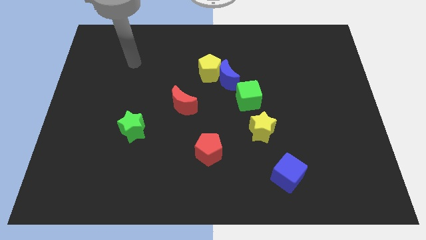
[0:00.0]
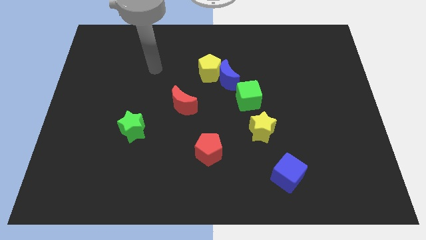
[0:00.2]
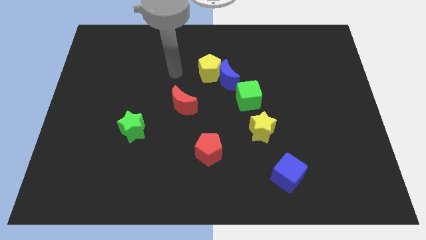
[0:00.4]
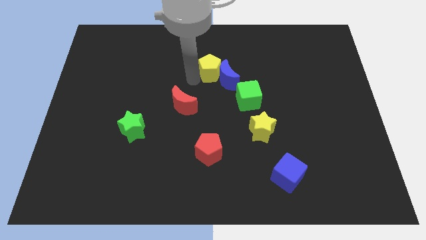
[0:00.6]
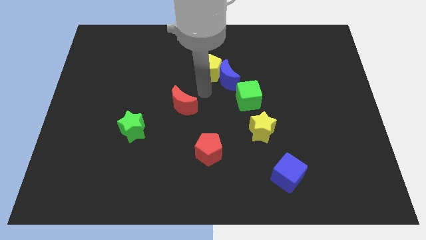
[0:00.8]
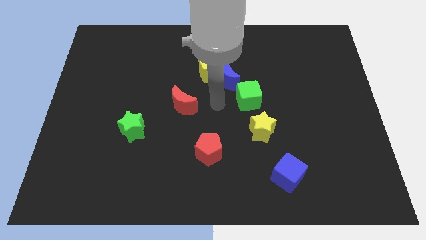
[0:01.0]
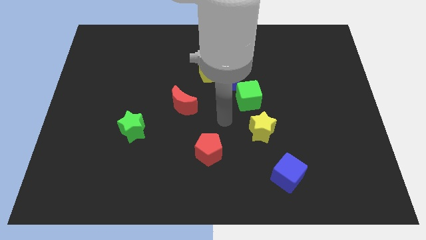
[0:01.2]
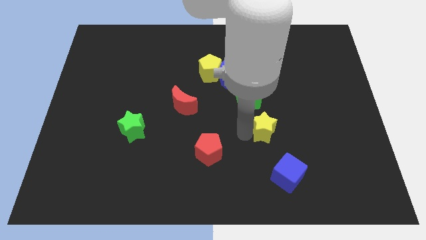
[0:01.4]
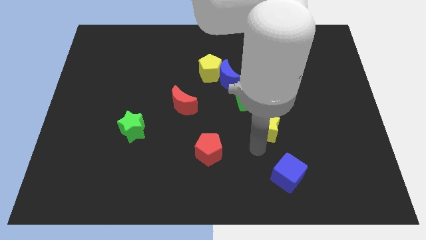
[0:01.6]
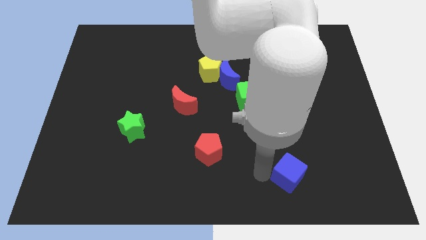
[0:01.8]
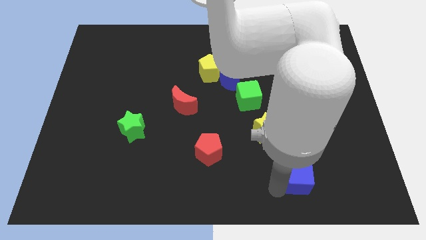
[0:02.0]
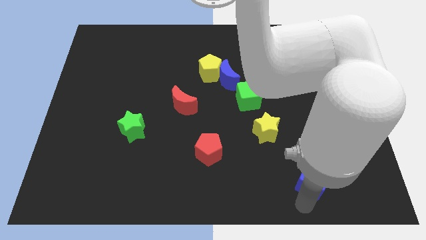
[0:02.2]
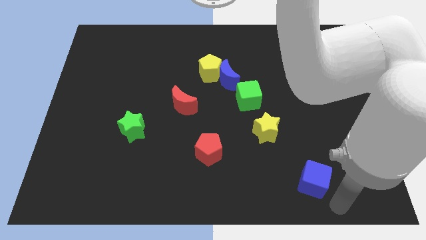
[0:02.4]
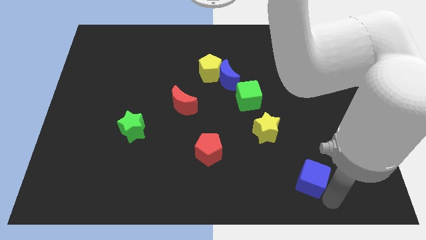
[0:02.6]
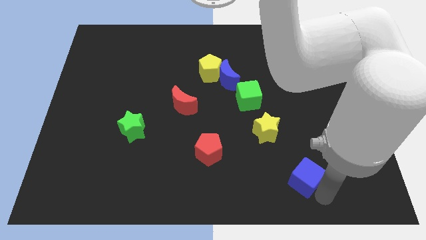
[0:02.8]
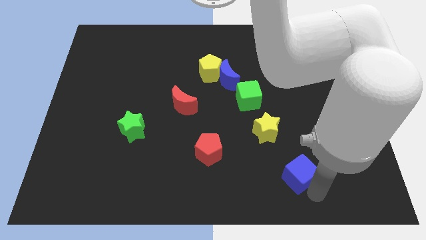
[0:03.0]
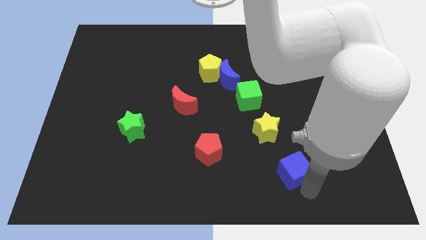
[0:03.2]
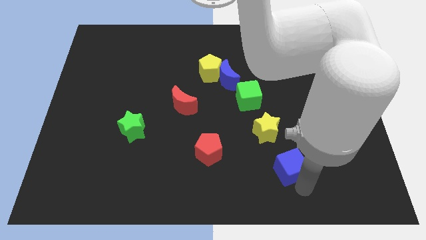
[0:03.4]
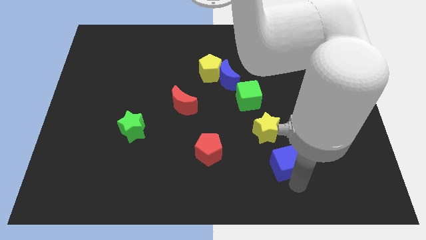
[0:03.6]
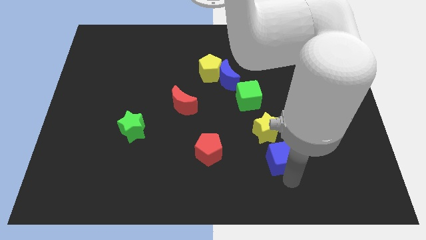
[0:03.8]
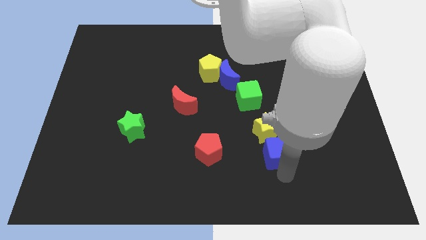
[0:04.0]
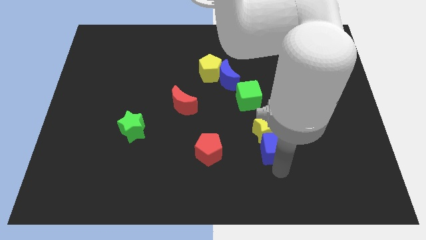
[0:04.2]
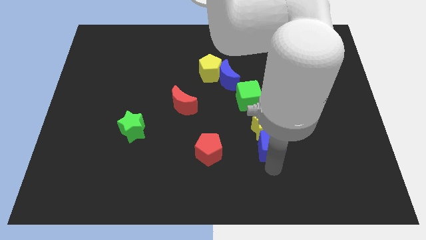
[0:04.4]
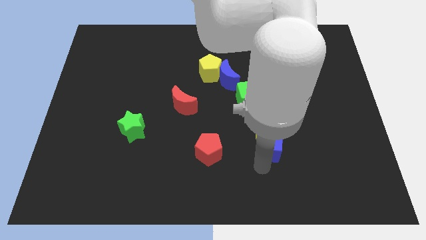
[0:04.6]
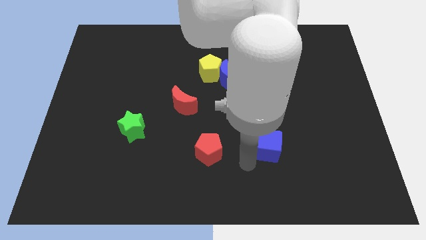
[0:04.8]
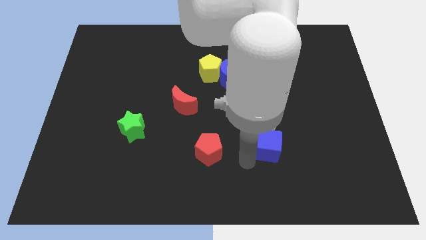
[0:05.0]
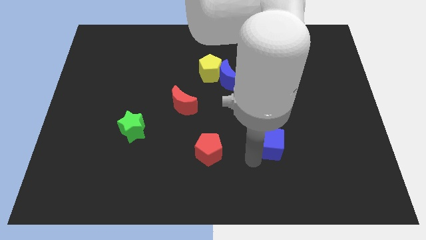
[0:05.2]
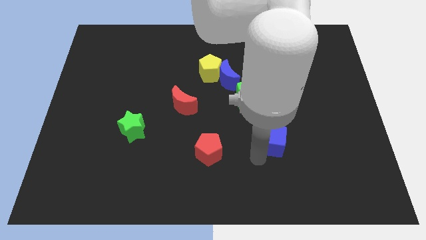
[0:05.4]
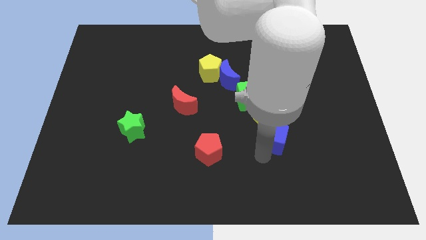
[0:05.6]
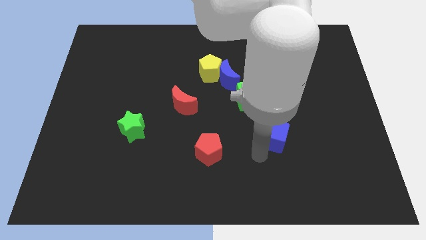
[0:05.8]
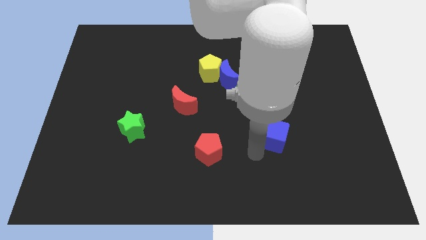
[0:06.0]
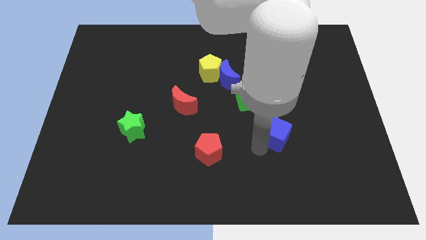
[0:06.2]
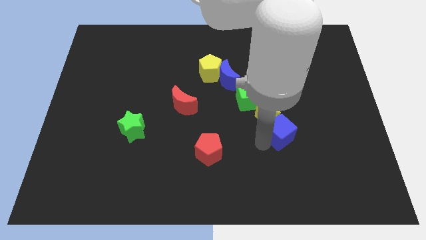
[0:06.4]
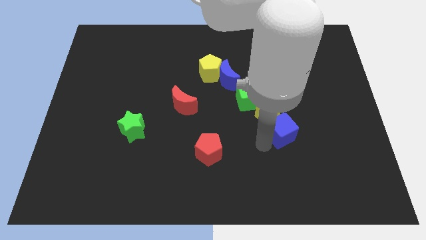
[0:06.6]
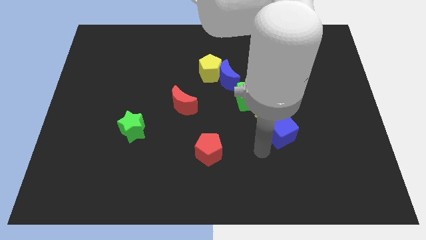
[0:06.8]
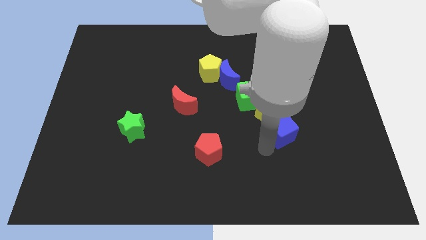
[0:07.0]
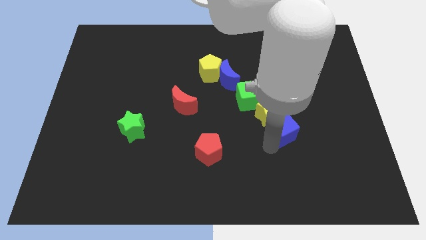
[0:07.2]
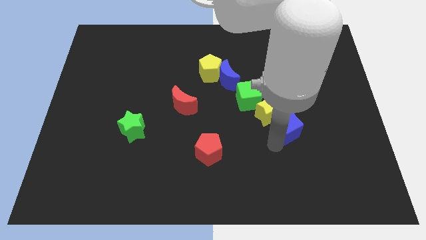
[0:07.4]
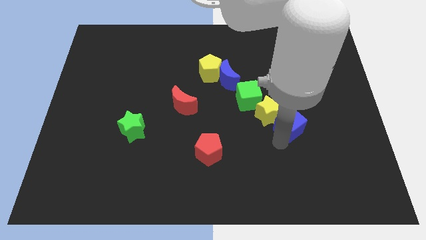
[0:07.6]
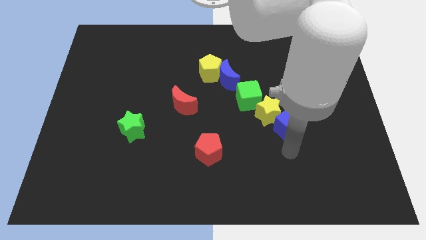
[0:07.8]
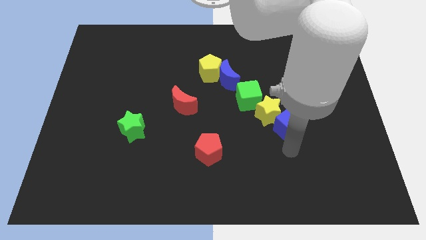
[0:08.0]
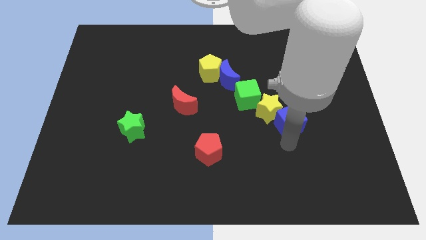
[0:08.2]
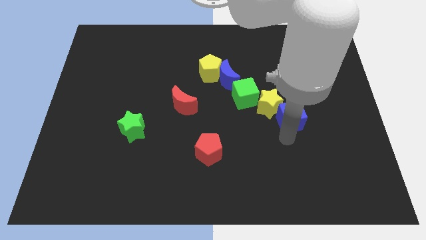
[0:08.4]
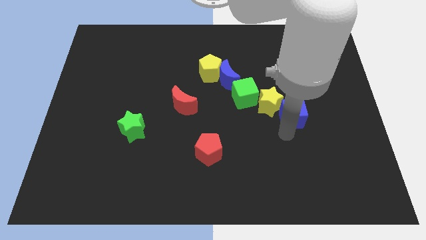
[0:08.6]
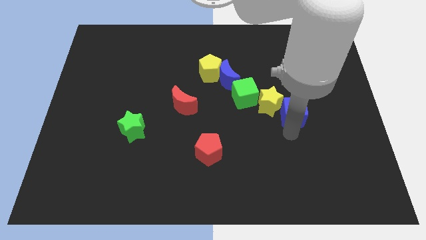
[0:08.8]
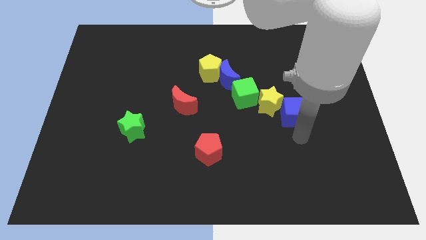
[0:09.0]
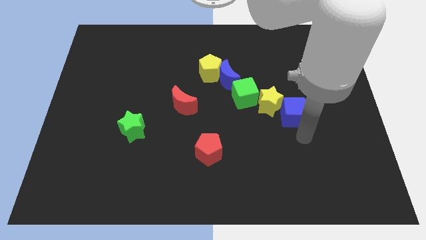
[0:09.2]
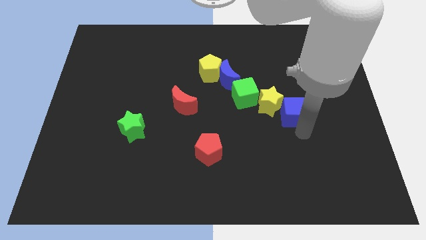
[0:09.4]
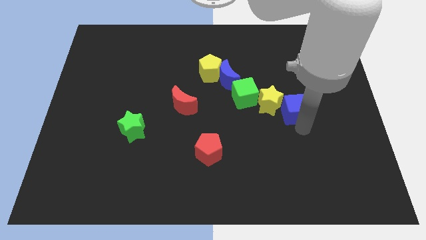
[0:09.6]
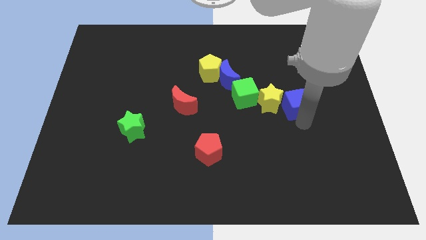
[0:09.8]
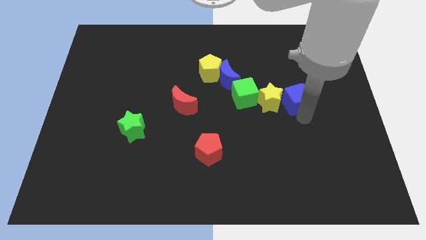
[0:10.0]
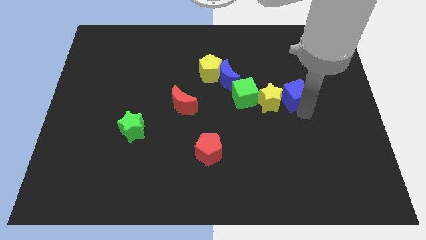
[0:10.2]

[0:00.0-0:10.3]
push the blue cube up

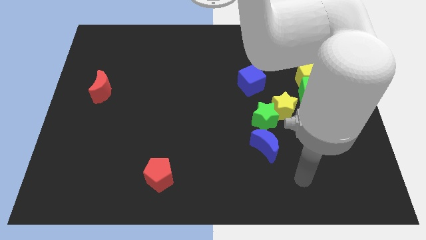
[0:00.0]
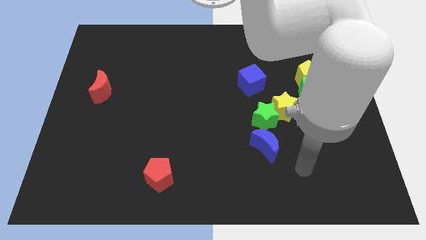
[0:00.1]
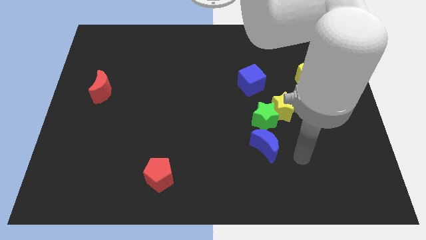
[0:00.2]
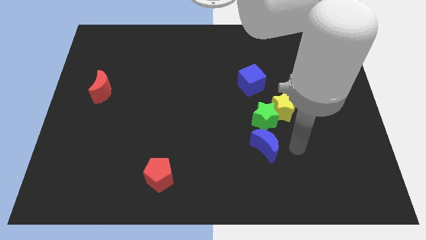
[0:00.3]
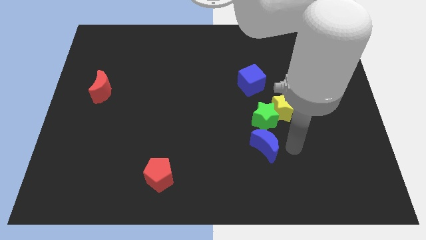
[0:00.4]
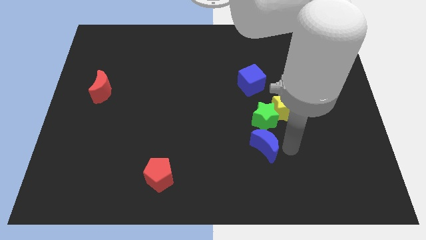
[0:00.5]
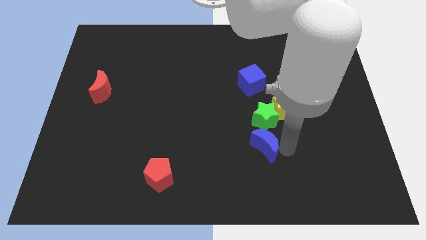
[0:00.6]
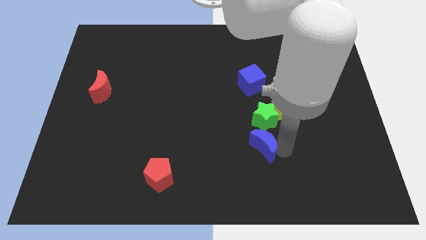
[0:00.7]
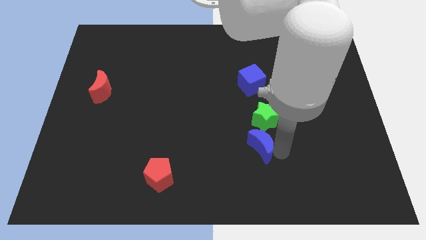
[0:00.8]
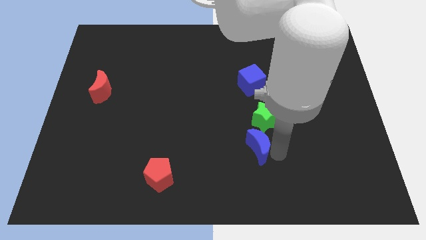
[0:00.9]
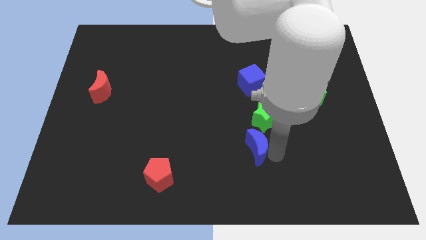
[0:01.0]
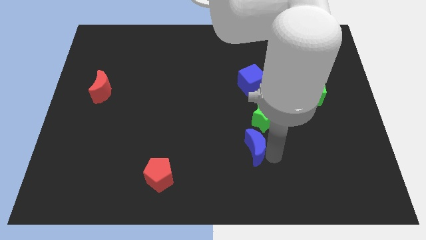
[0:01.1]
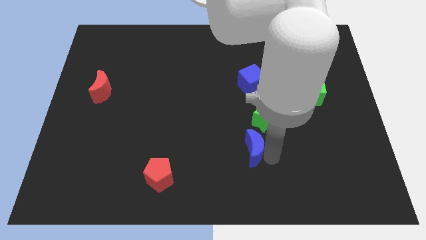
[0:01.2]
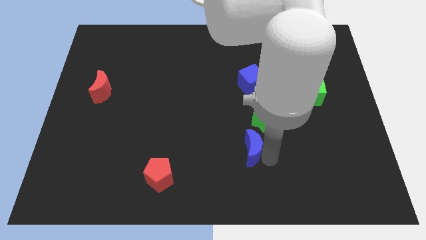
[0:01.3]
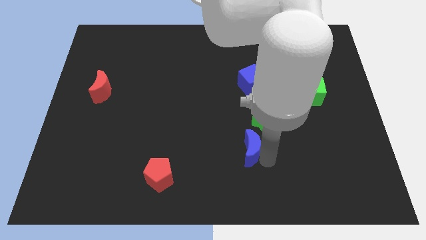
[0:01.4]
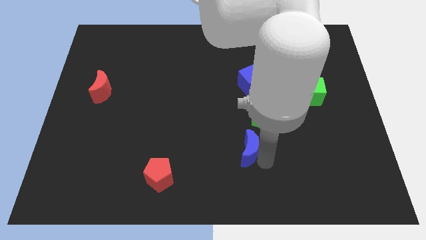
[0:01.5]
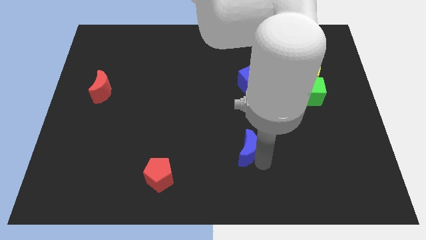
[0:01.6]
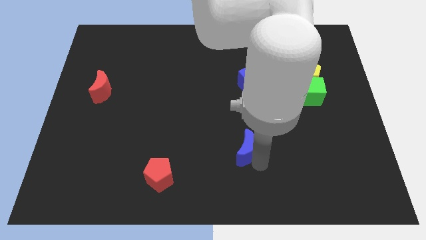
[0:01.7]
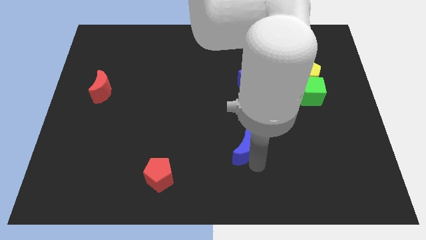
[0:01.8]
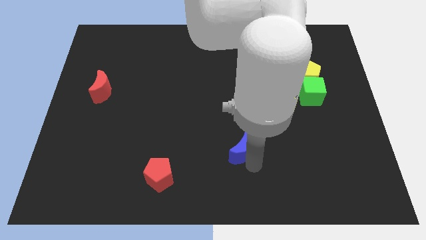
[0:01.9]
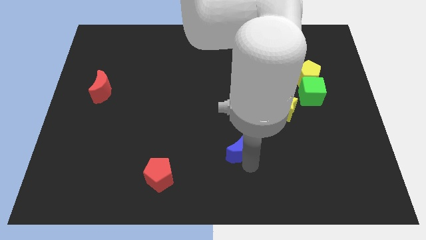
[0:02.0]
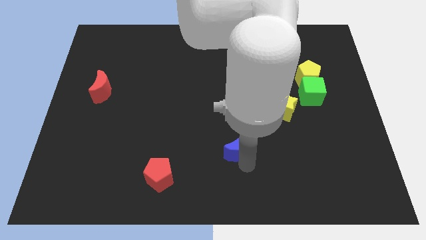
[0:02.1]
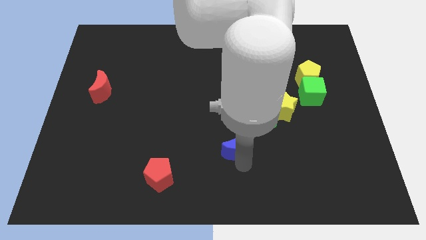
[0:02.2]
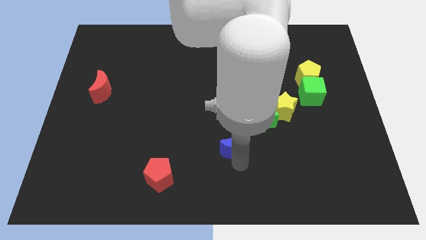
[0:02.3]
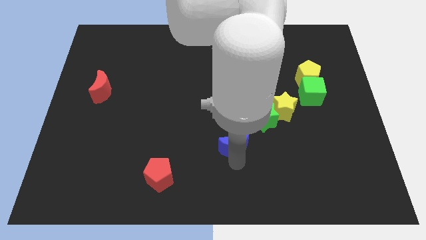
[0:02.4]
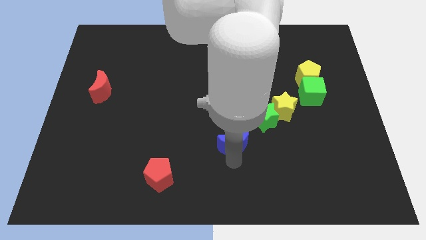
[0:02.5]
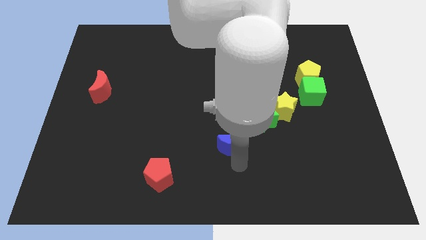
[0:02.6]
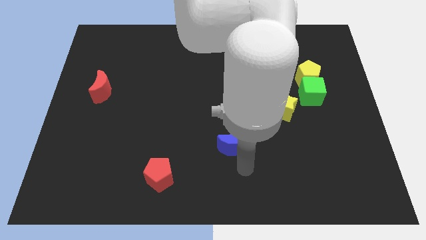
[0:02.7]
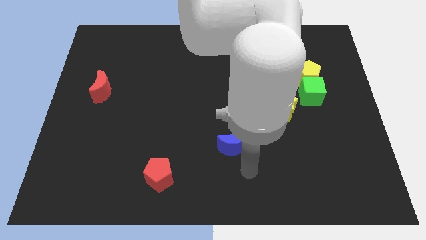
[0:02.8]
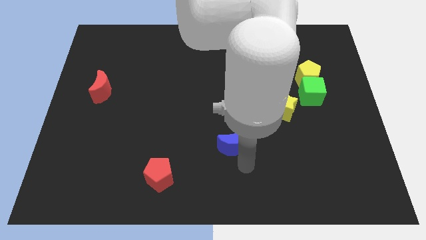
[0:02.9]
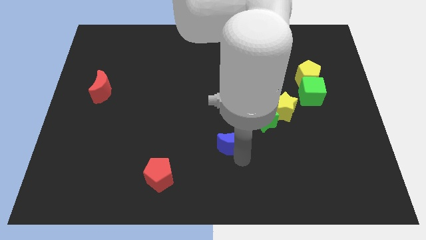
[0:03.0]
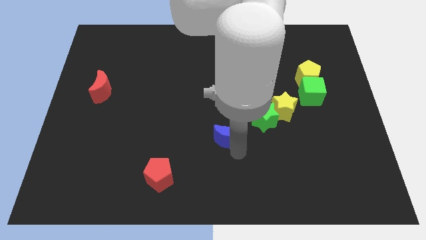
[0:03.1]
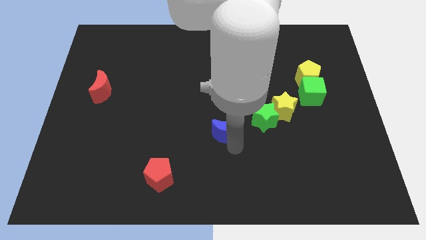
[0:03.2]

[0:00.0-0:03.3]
slide the blue moon a little up and then left
